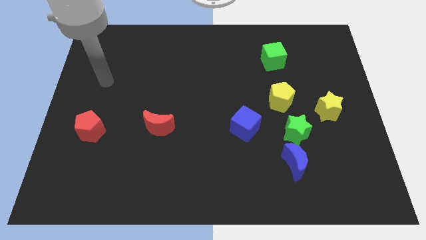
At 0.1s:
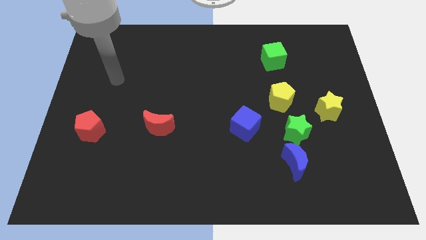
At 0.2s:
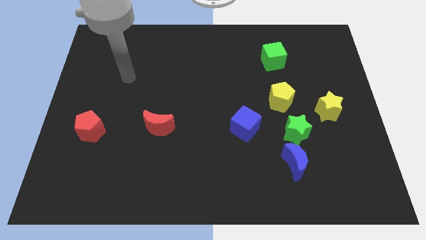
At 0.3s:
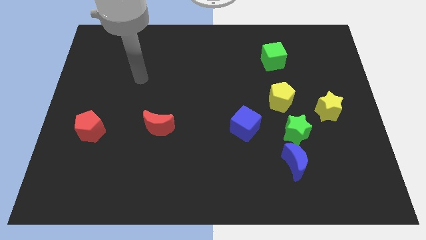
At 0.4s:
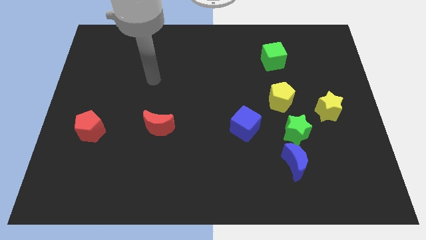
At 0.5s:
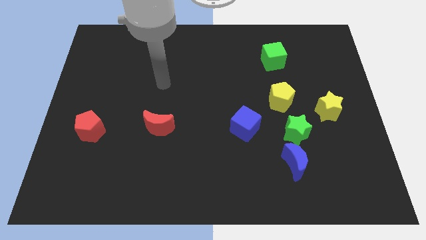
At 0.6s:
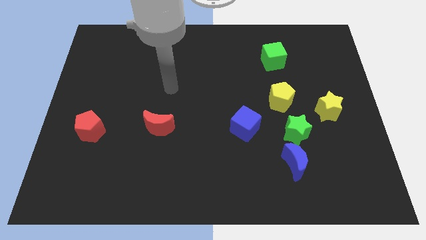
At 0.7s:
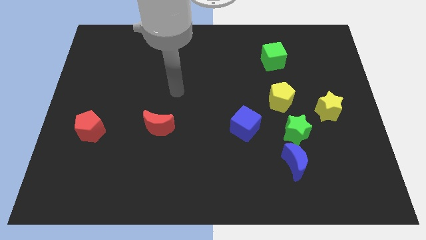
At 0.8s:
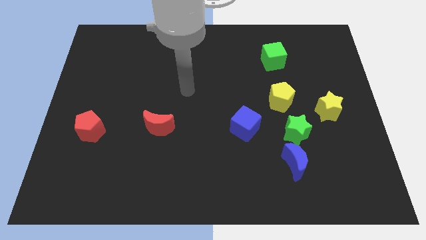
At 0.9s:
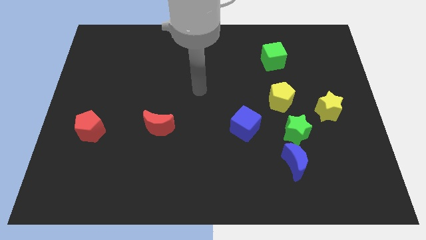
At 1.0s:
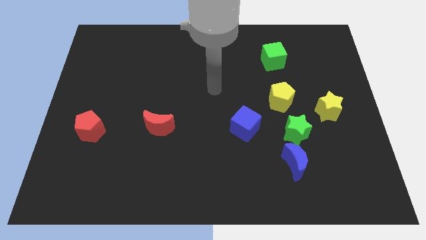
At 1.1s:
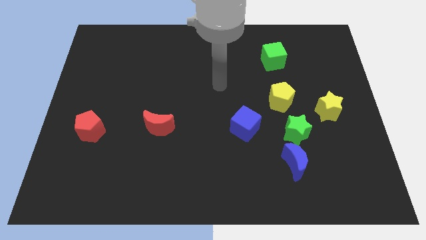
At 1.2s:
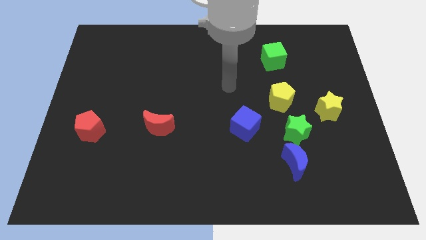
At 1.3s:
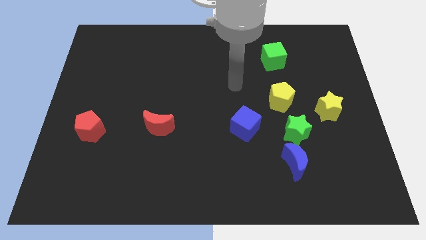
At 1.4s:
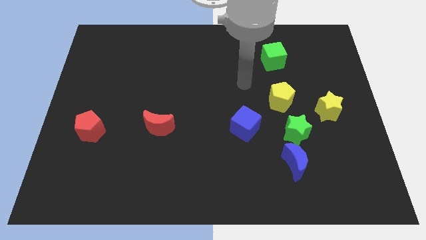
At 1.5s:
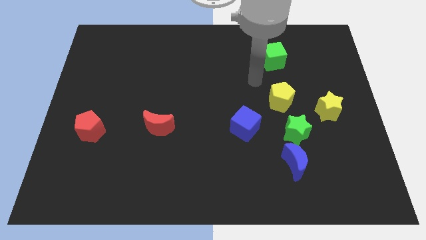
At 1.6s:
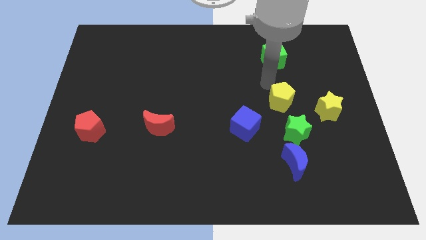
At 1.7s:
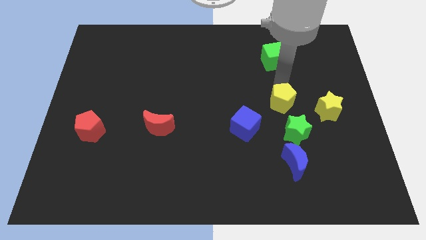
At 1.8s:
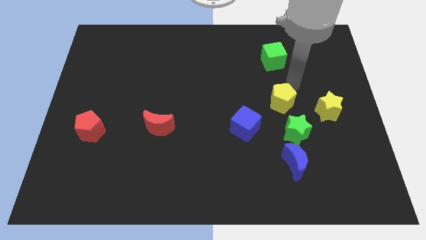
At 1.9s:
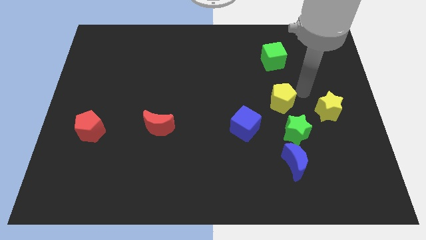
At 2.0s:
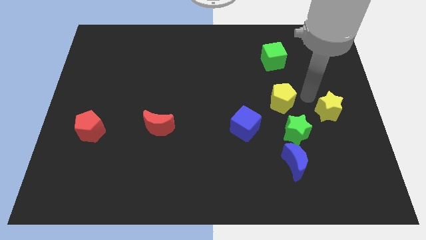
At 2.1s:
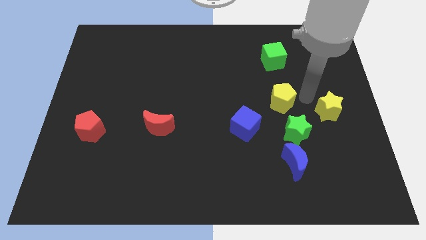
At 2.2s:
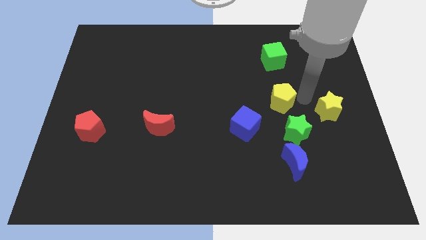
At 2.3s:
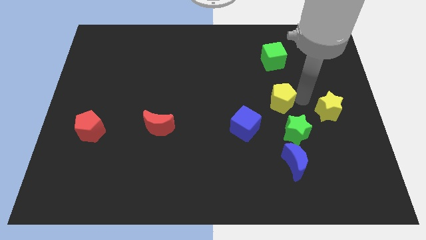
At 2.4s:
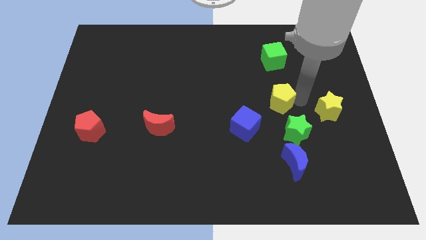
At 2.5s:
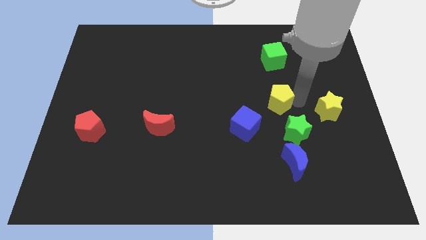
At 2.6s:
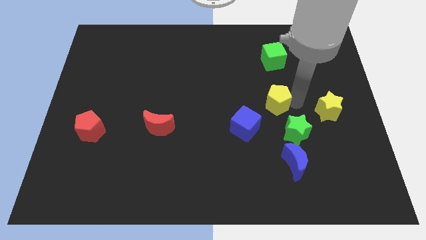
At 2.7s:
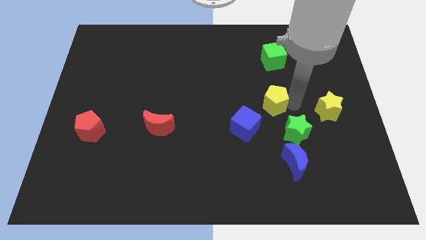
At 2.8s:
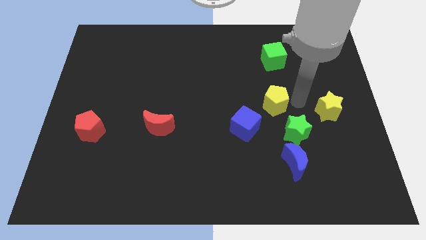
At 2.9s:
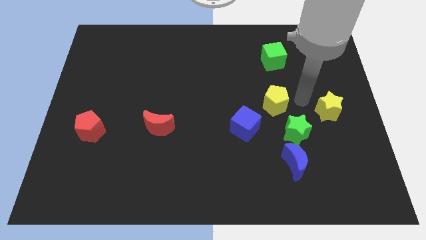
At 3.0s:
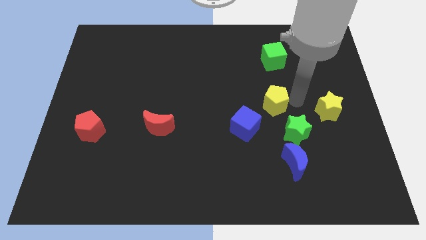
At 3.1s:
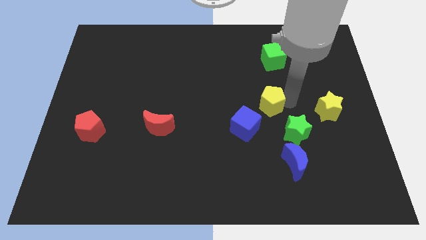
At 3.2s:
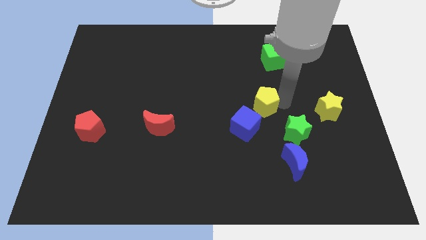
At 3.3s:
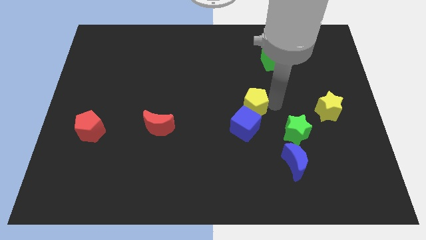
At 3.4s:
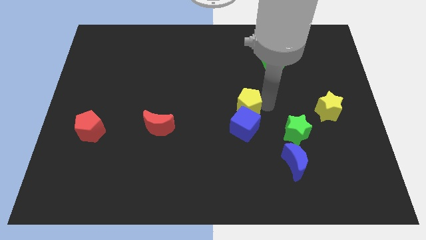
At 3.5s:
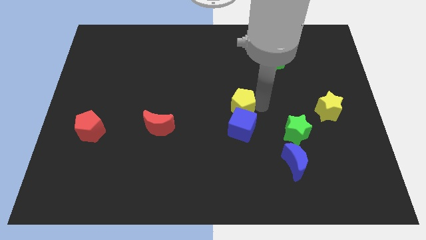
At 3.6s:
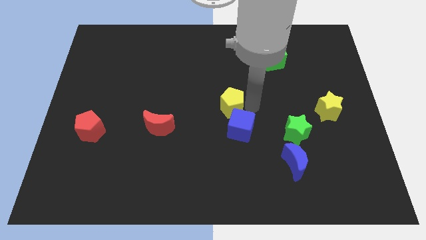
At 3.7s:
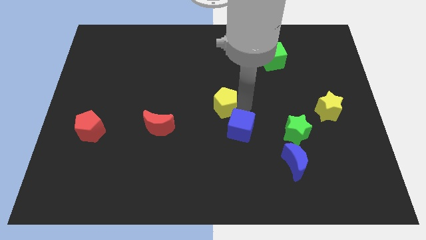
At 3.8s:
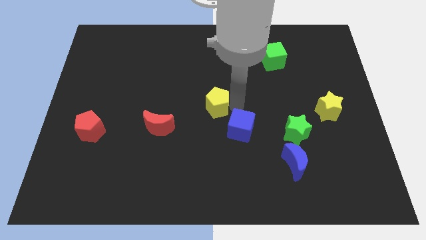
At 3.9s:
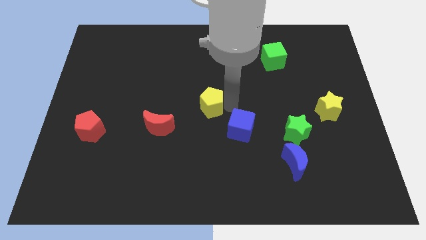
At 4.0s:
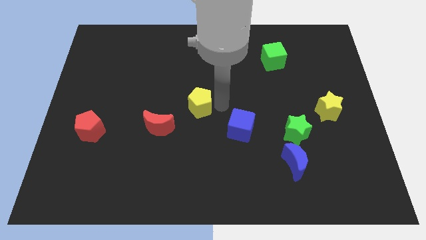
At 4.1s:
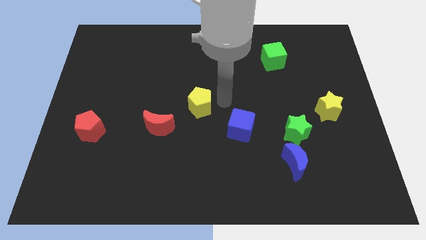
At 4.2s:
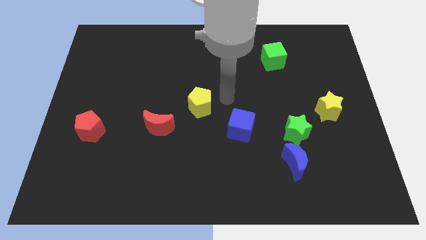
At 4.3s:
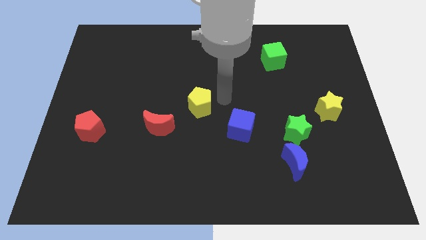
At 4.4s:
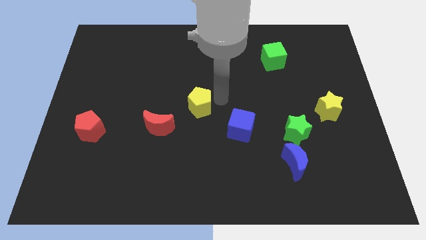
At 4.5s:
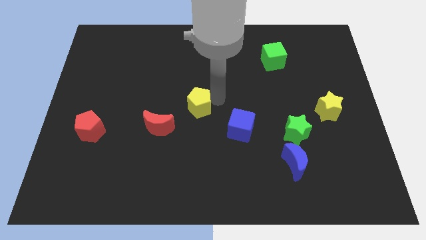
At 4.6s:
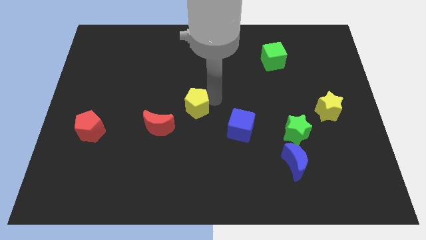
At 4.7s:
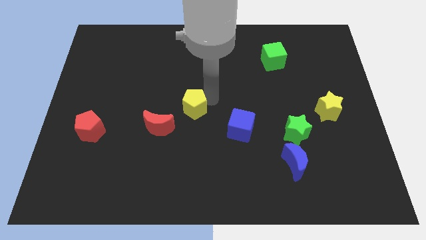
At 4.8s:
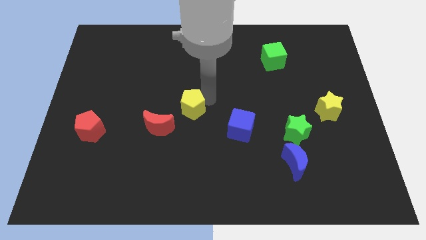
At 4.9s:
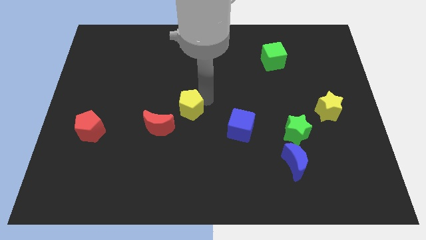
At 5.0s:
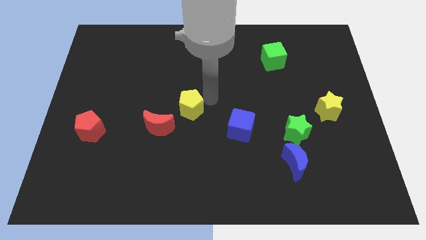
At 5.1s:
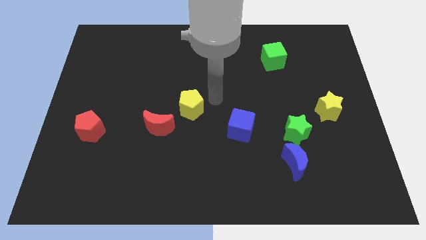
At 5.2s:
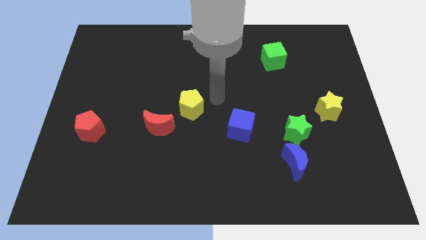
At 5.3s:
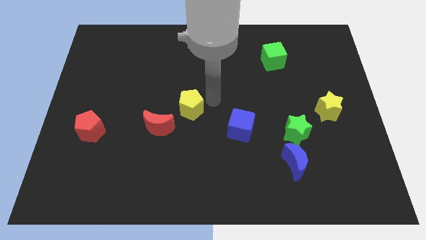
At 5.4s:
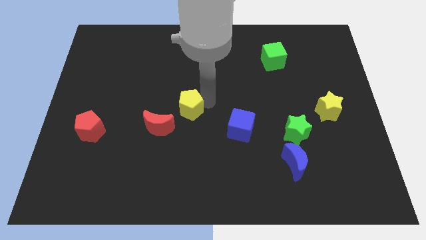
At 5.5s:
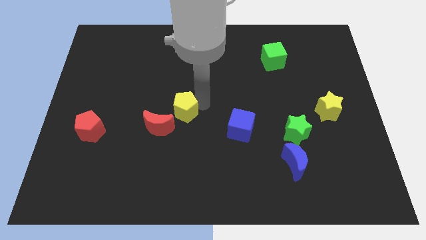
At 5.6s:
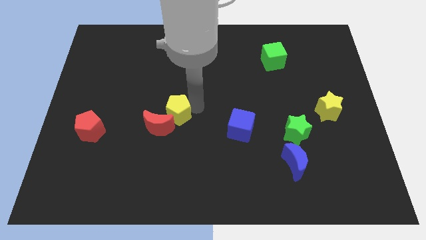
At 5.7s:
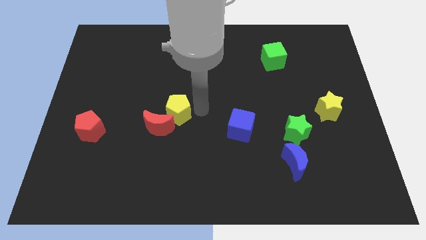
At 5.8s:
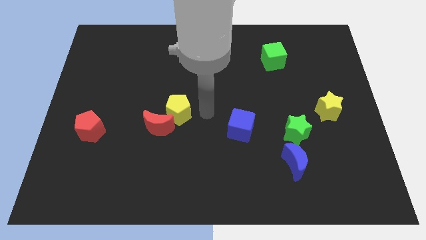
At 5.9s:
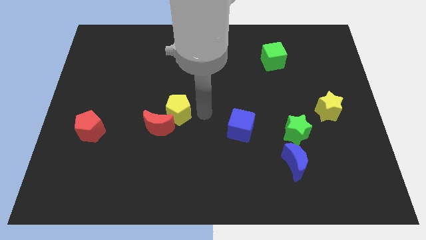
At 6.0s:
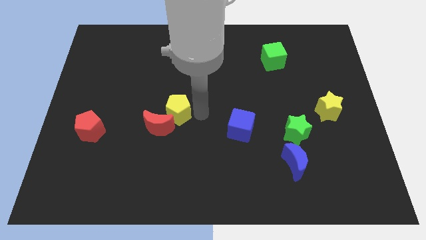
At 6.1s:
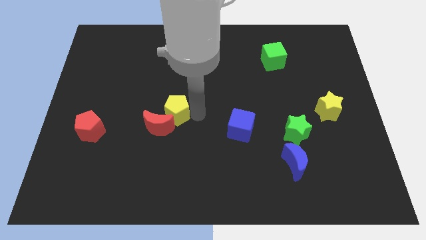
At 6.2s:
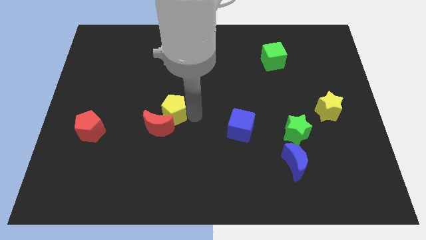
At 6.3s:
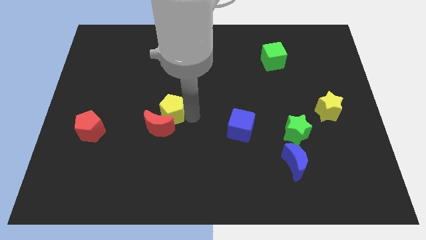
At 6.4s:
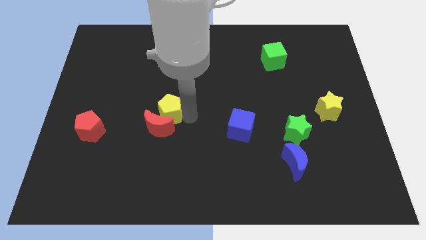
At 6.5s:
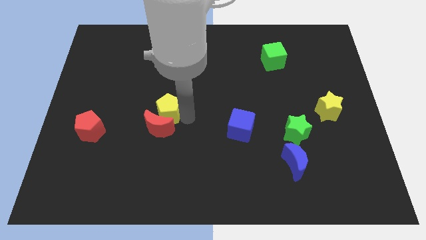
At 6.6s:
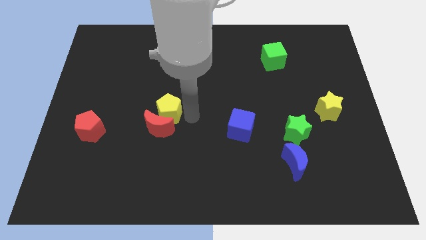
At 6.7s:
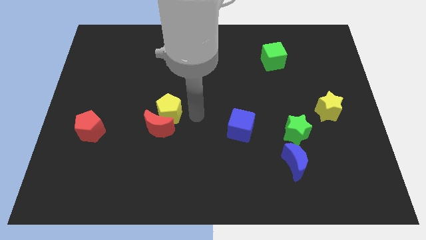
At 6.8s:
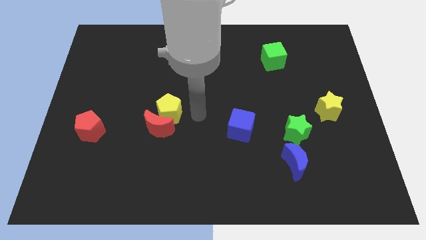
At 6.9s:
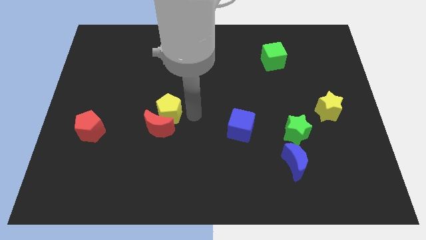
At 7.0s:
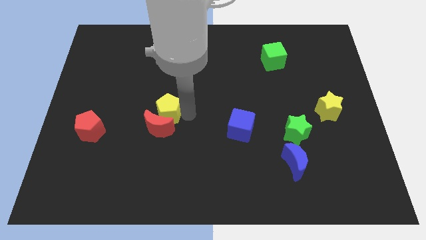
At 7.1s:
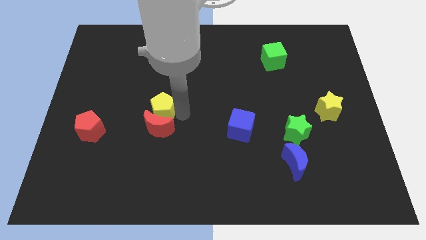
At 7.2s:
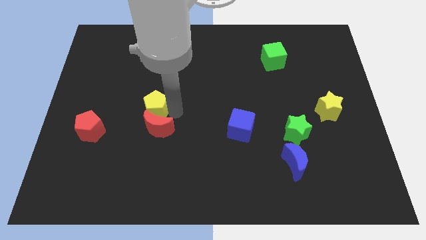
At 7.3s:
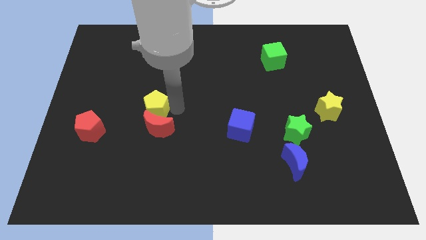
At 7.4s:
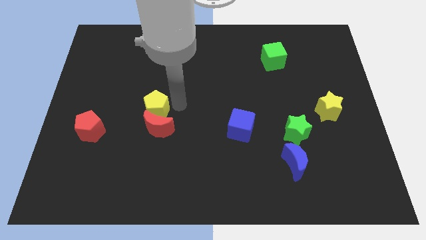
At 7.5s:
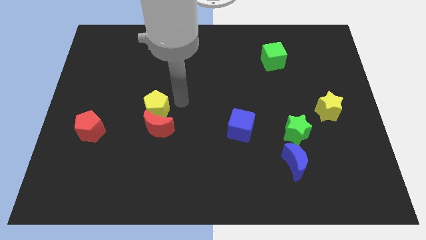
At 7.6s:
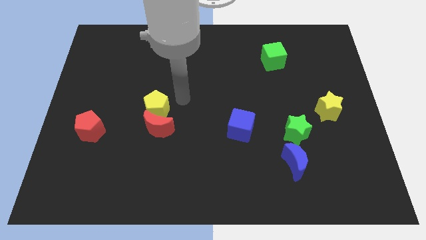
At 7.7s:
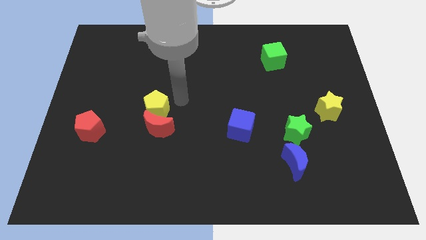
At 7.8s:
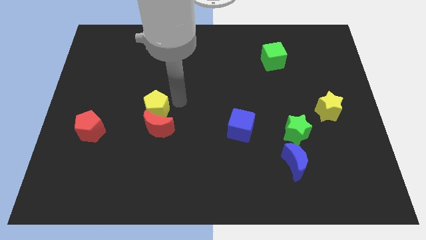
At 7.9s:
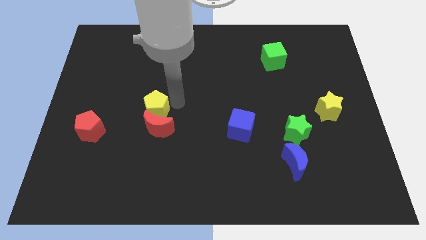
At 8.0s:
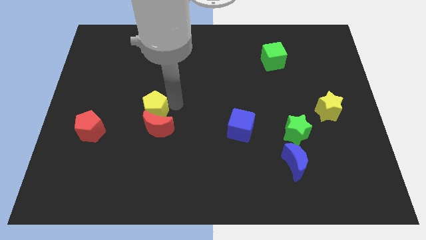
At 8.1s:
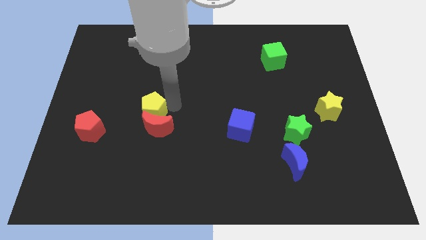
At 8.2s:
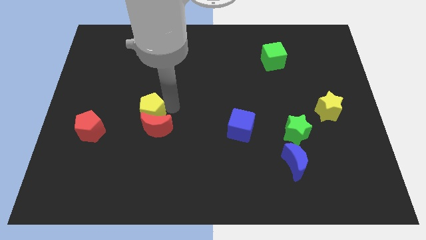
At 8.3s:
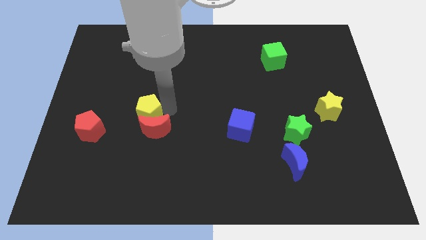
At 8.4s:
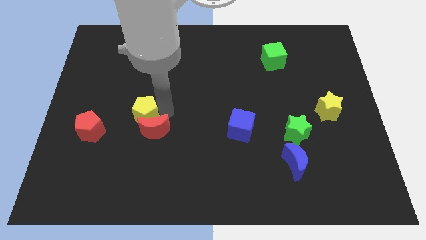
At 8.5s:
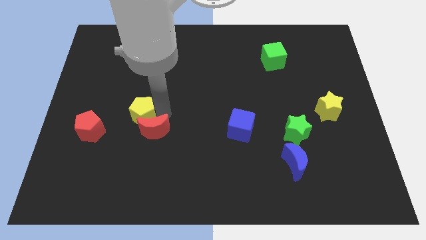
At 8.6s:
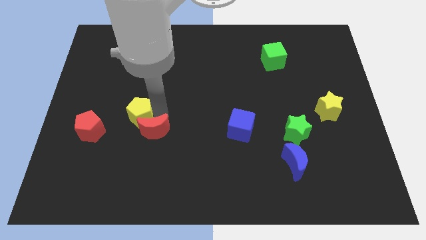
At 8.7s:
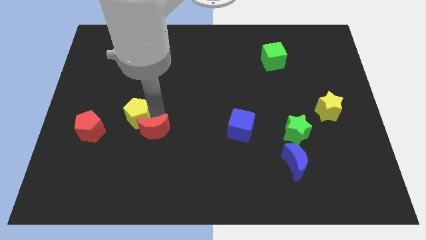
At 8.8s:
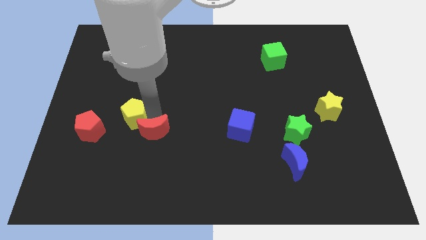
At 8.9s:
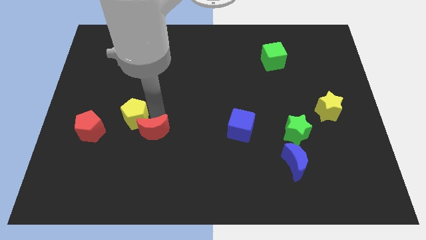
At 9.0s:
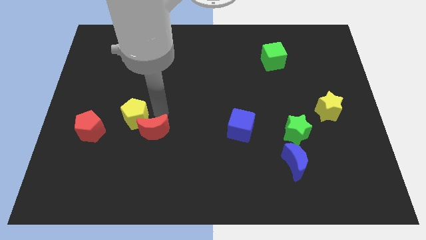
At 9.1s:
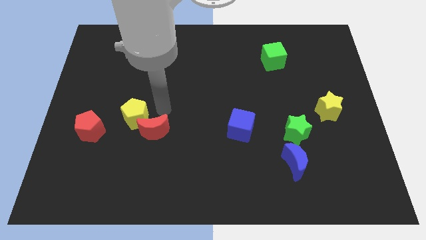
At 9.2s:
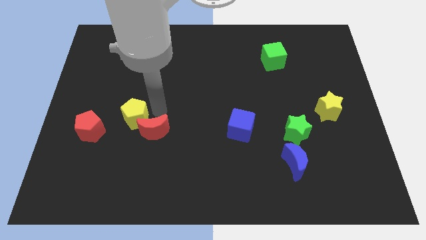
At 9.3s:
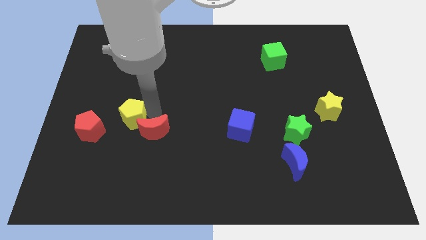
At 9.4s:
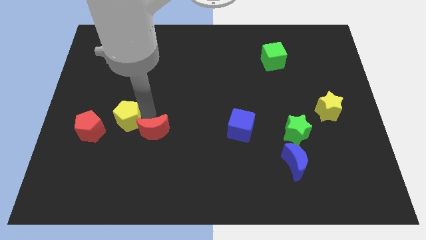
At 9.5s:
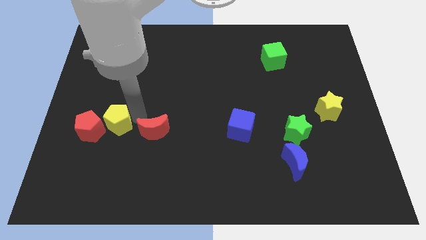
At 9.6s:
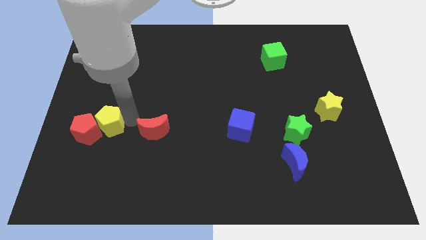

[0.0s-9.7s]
slide the yellow pentagon next to the red pentagon
